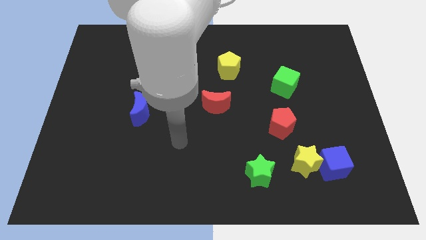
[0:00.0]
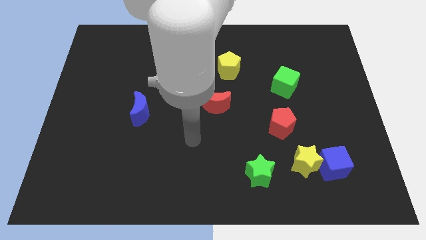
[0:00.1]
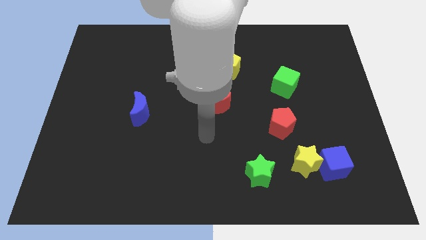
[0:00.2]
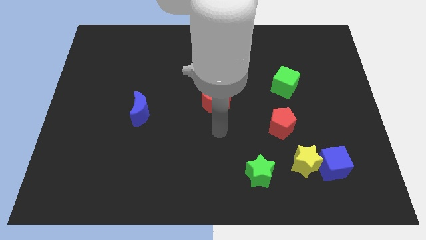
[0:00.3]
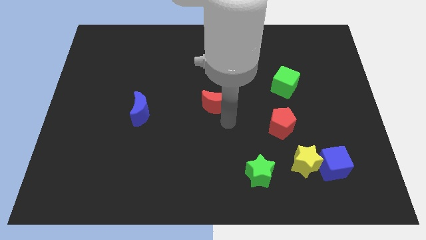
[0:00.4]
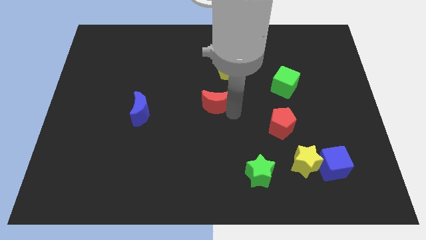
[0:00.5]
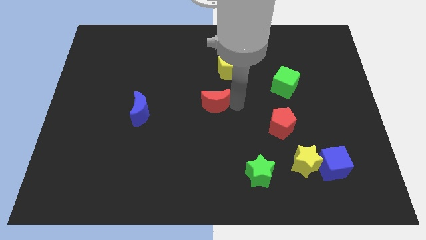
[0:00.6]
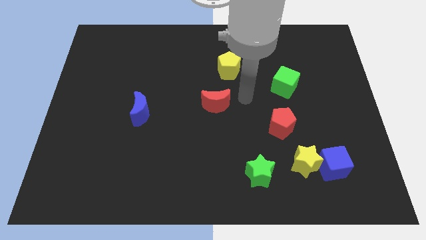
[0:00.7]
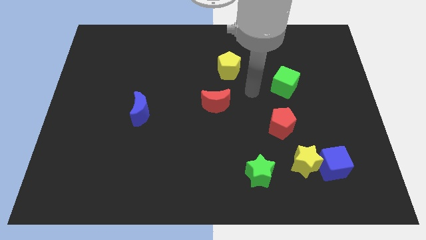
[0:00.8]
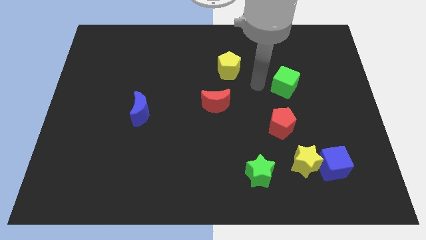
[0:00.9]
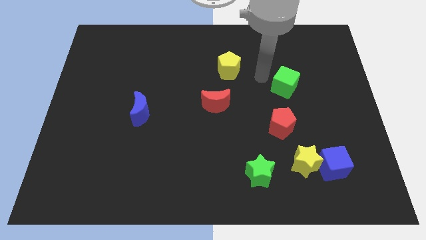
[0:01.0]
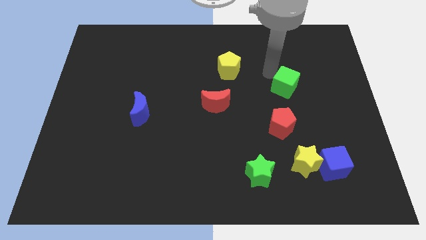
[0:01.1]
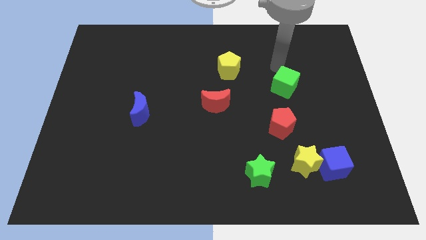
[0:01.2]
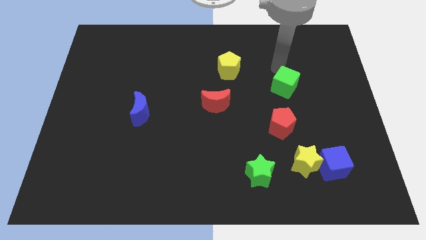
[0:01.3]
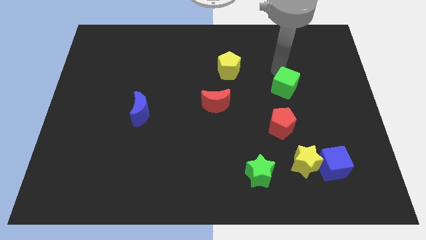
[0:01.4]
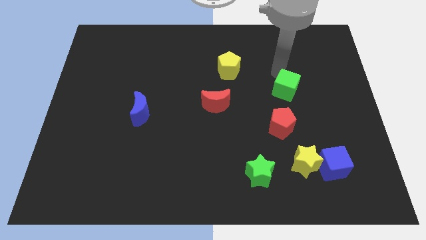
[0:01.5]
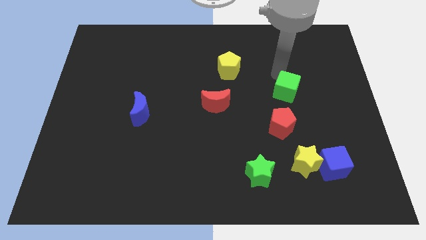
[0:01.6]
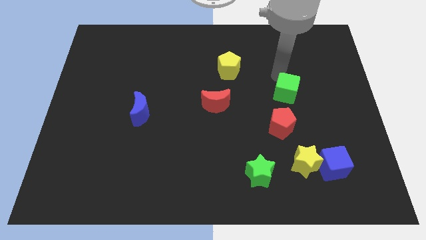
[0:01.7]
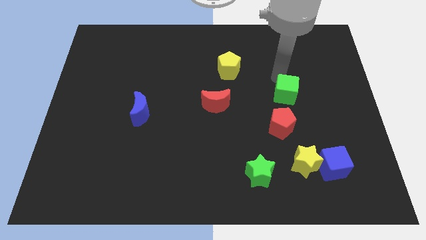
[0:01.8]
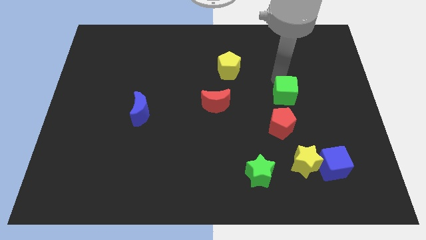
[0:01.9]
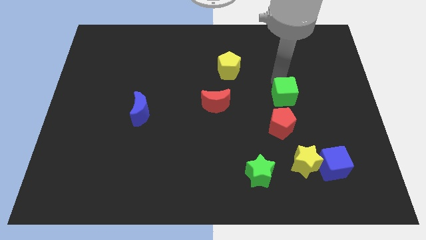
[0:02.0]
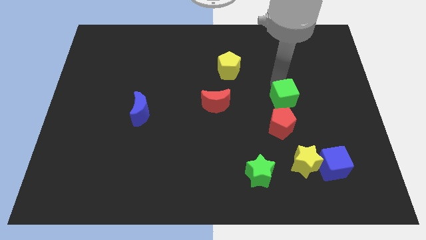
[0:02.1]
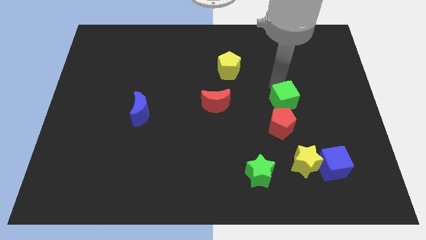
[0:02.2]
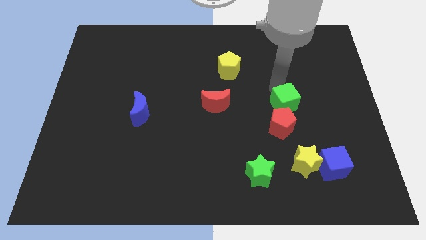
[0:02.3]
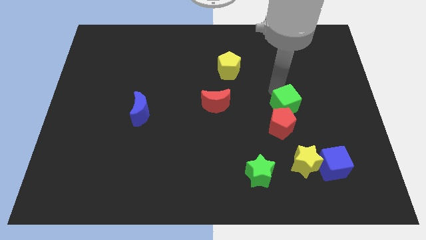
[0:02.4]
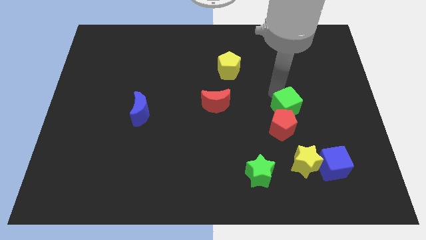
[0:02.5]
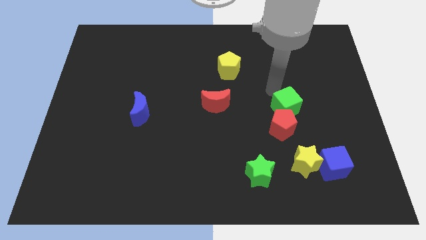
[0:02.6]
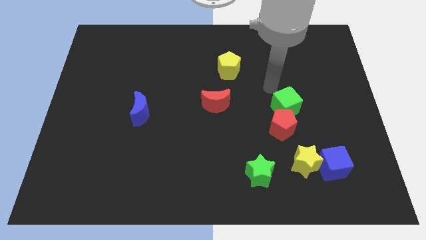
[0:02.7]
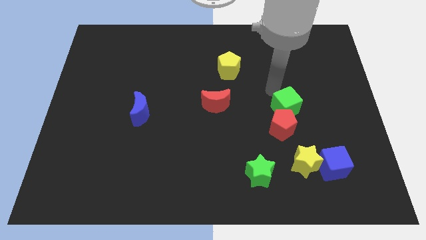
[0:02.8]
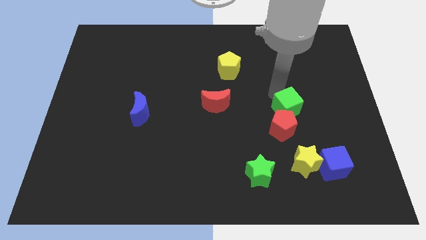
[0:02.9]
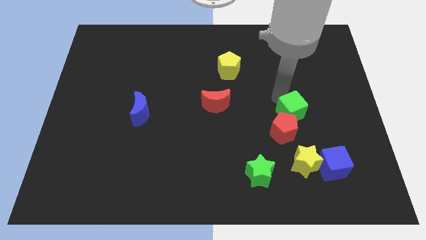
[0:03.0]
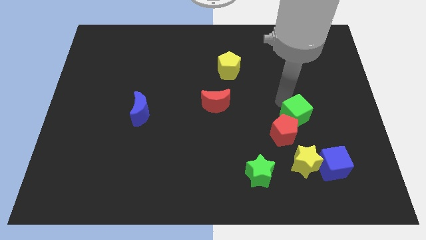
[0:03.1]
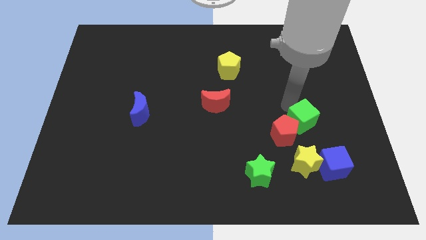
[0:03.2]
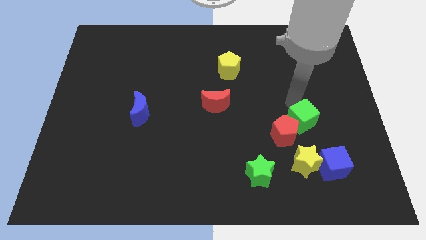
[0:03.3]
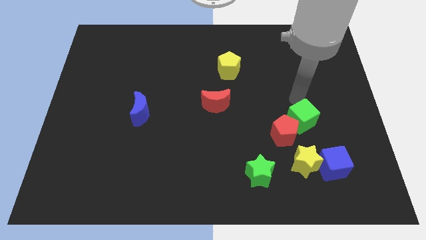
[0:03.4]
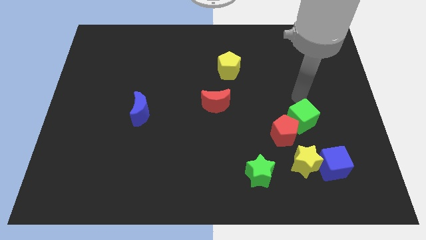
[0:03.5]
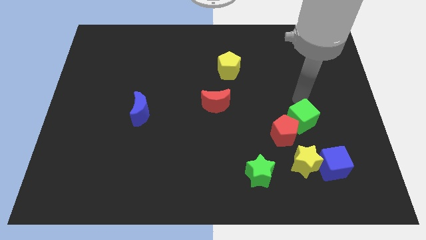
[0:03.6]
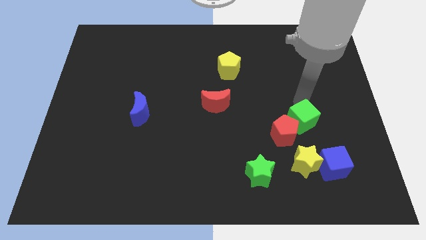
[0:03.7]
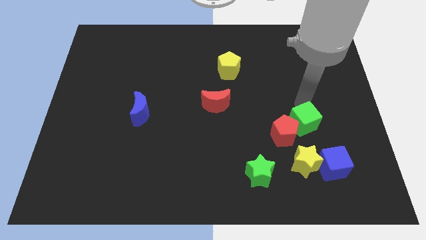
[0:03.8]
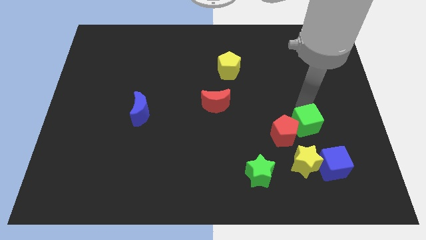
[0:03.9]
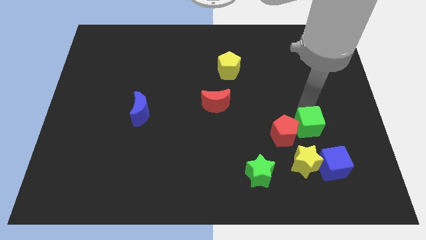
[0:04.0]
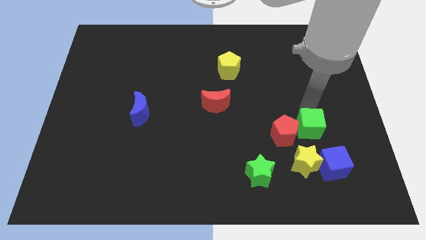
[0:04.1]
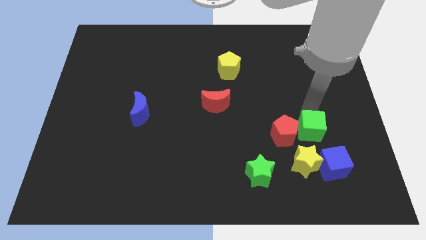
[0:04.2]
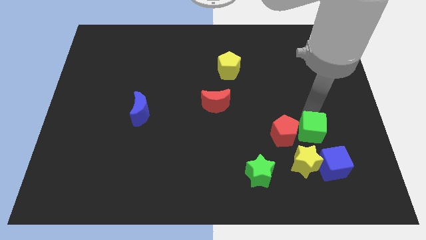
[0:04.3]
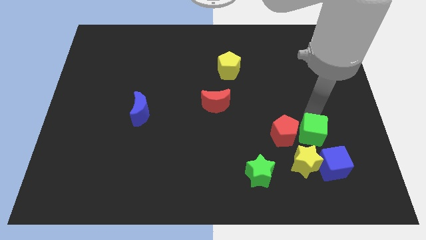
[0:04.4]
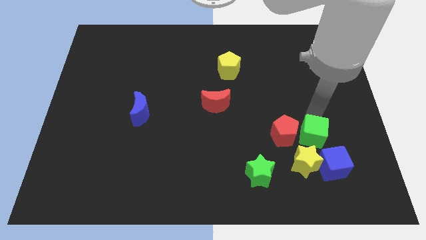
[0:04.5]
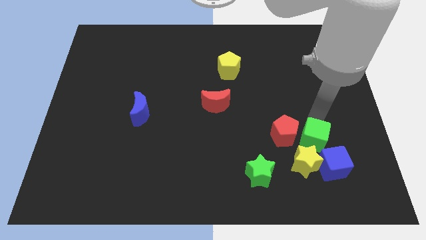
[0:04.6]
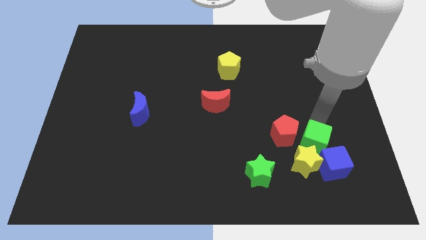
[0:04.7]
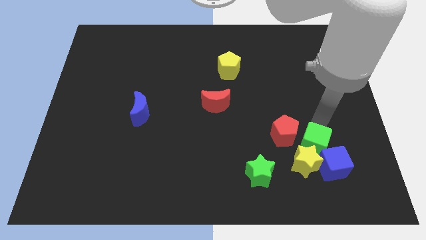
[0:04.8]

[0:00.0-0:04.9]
put the green cube towards the yellow star

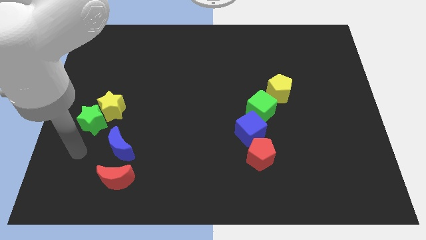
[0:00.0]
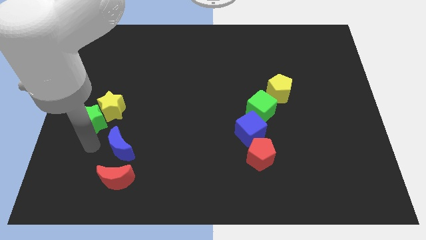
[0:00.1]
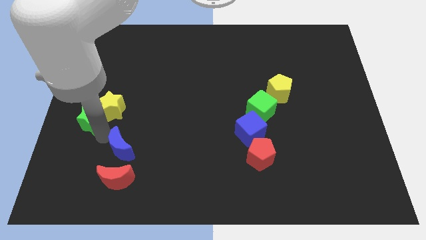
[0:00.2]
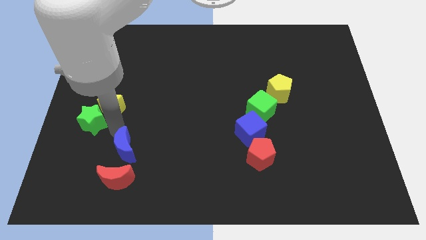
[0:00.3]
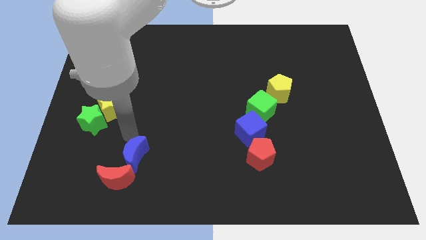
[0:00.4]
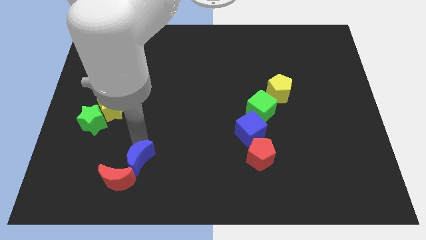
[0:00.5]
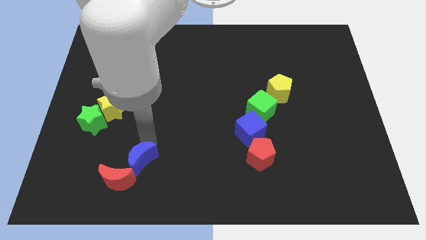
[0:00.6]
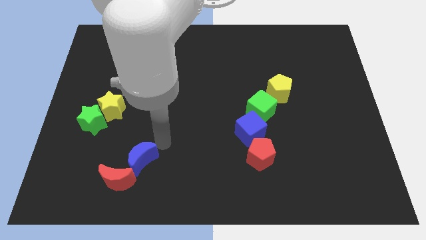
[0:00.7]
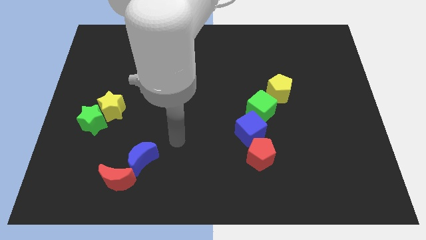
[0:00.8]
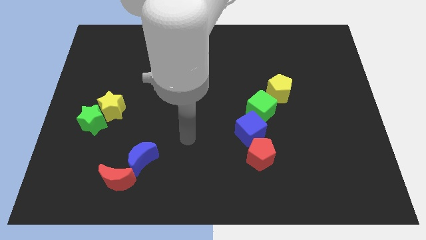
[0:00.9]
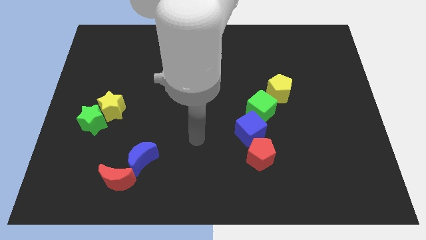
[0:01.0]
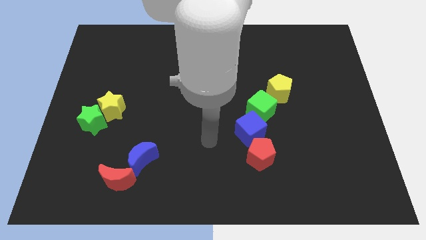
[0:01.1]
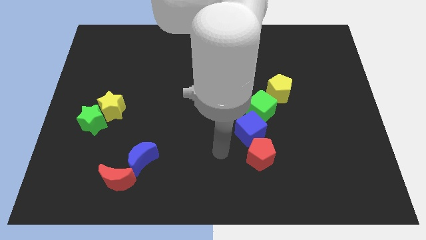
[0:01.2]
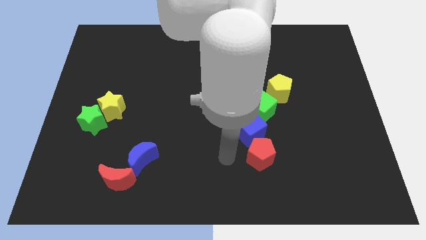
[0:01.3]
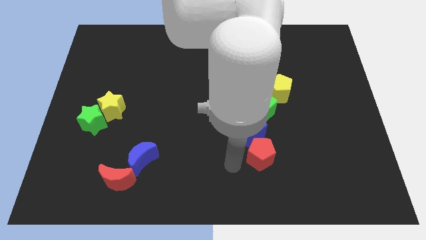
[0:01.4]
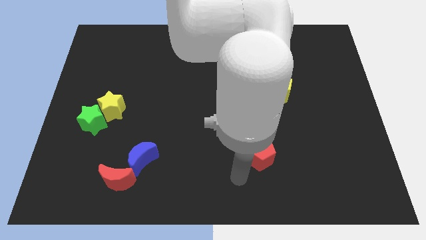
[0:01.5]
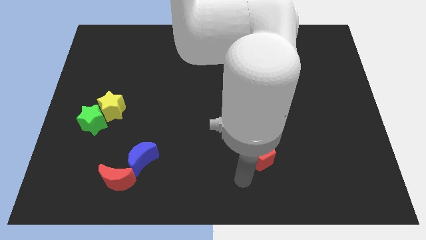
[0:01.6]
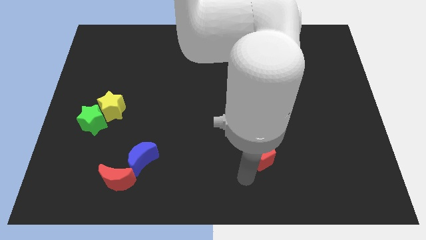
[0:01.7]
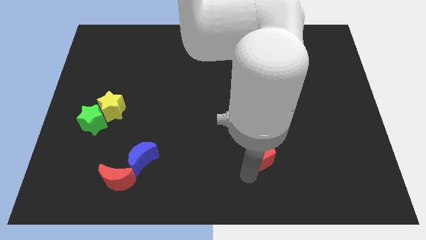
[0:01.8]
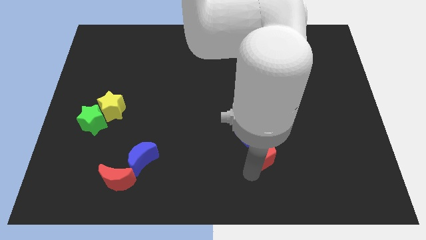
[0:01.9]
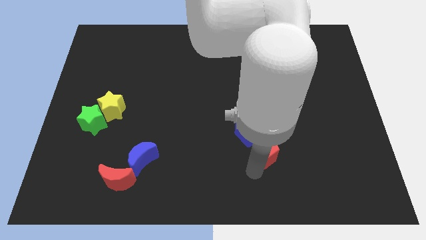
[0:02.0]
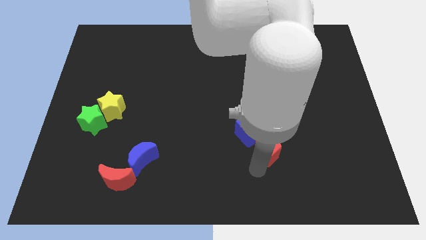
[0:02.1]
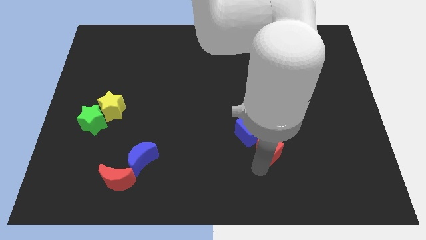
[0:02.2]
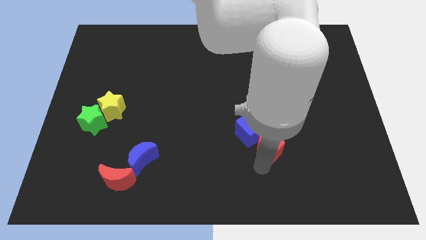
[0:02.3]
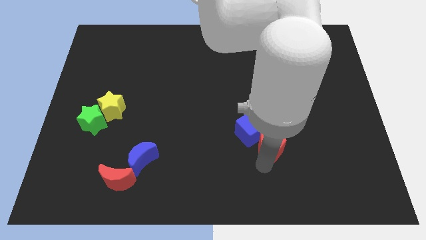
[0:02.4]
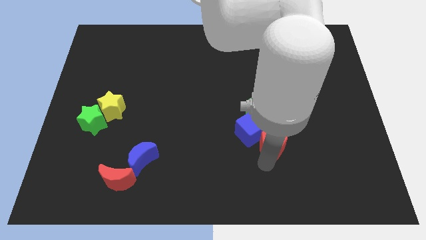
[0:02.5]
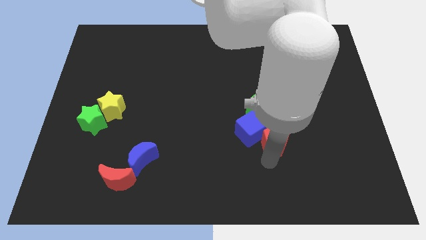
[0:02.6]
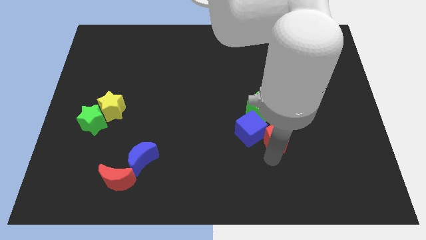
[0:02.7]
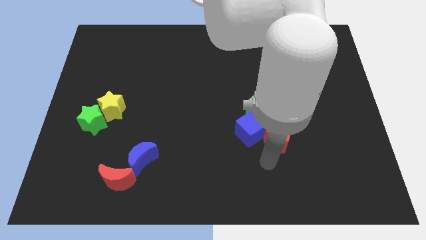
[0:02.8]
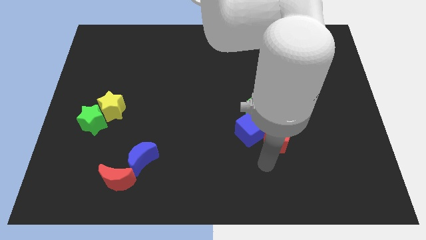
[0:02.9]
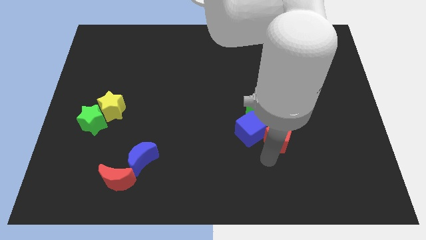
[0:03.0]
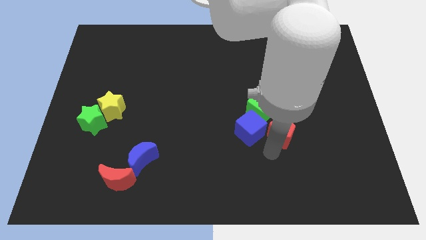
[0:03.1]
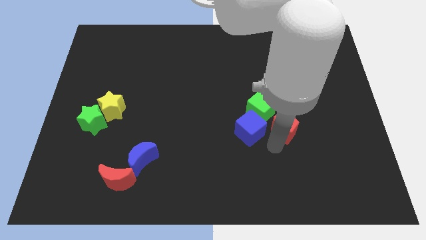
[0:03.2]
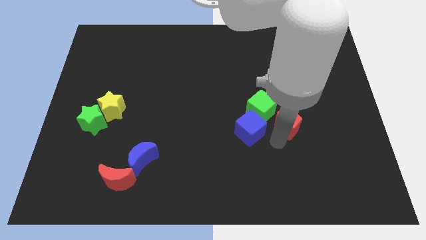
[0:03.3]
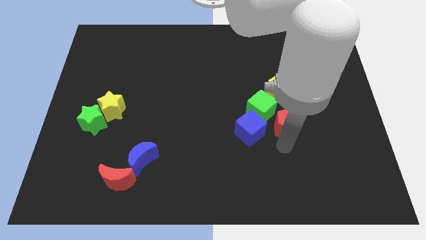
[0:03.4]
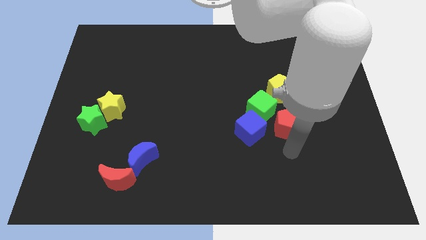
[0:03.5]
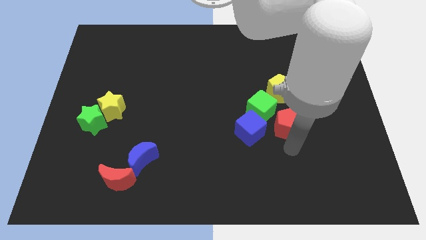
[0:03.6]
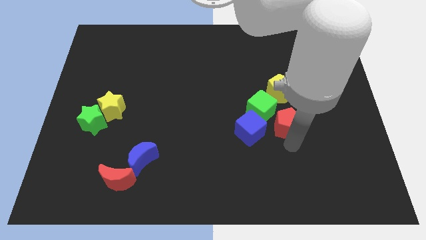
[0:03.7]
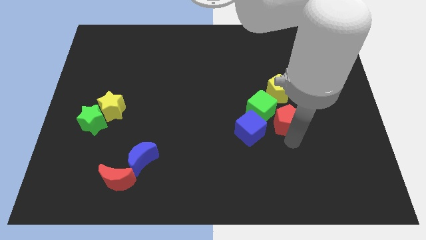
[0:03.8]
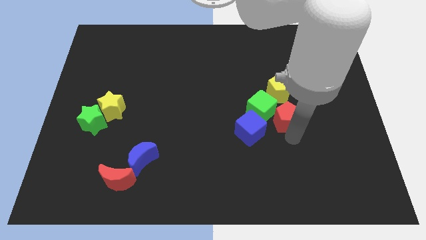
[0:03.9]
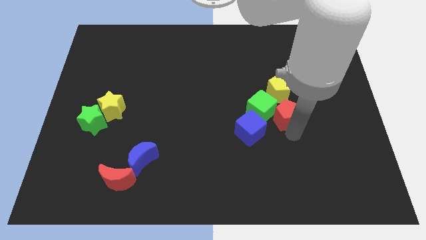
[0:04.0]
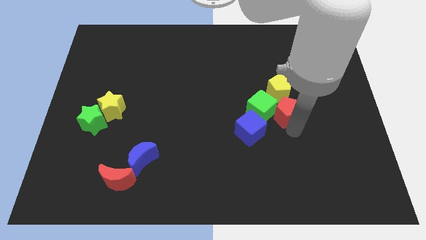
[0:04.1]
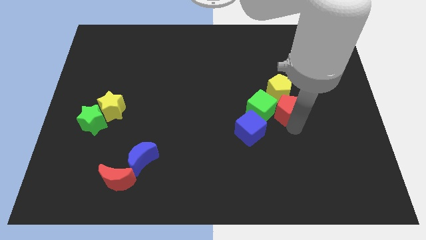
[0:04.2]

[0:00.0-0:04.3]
move the red pentagon close to the yellow pentagon
